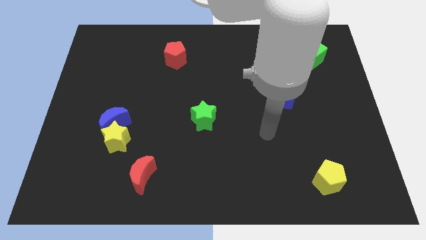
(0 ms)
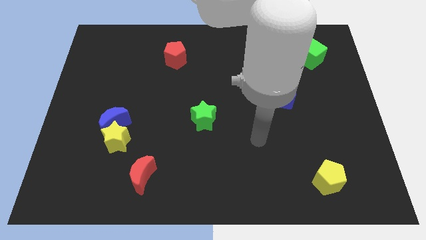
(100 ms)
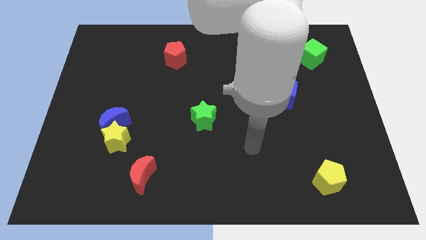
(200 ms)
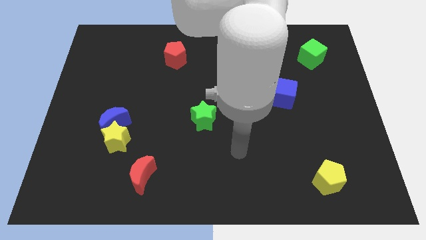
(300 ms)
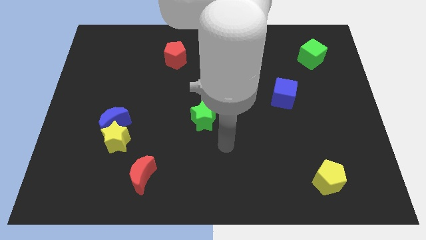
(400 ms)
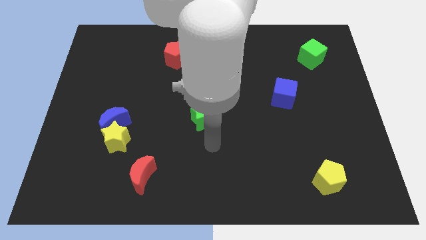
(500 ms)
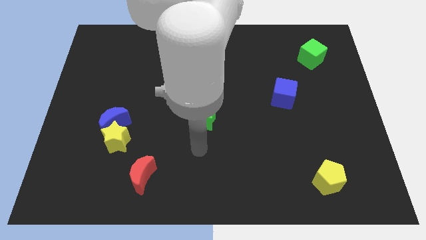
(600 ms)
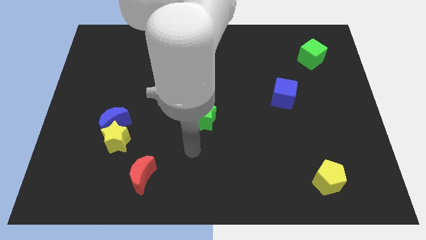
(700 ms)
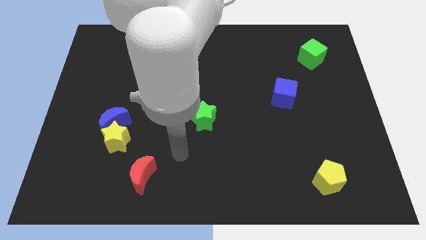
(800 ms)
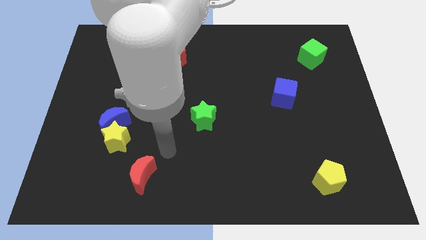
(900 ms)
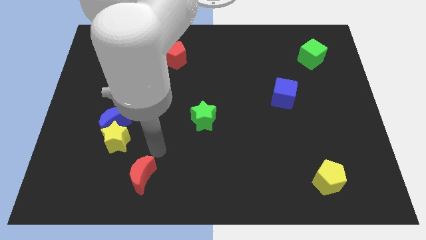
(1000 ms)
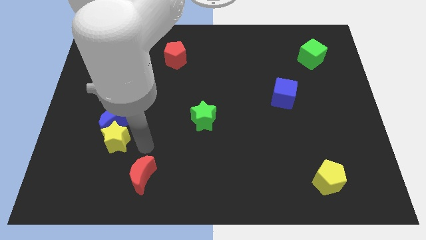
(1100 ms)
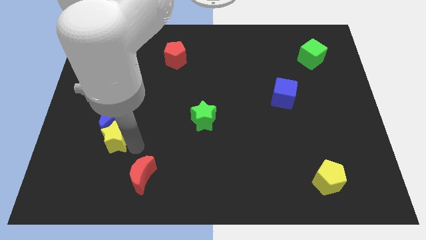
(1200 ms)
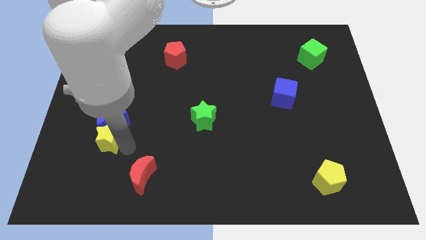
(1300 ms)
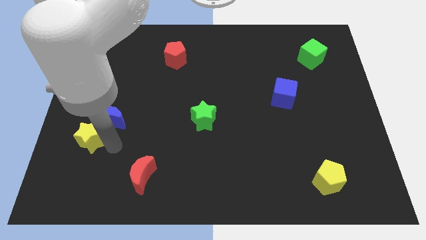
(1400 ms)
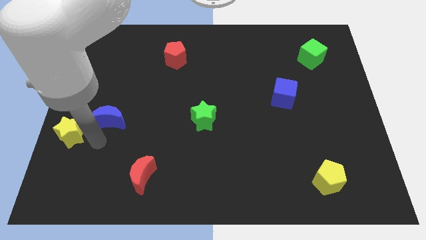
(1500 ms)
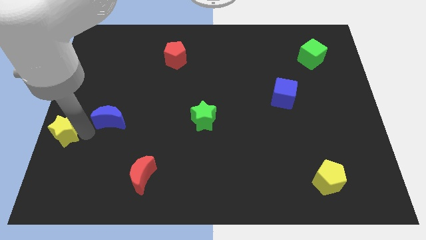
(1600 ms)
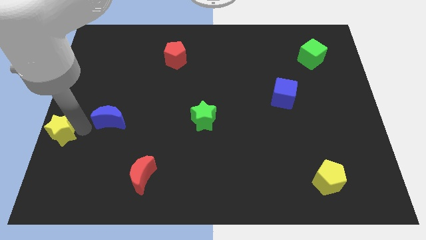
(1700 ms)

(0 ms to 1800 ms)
pull the blue moon apart from the yellow star

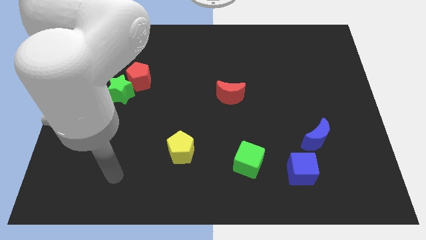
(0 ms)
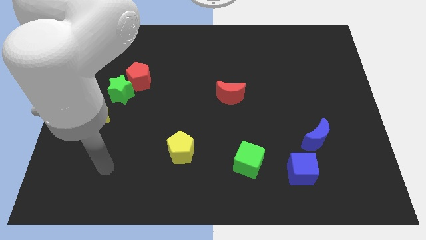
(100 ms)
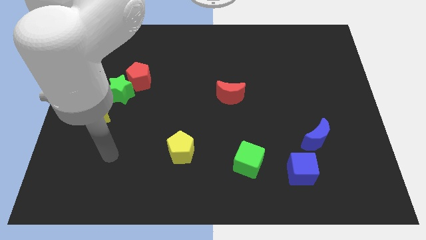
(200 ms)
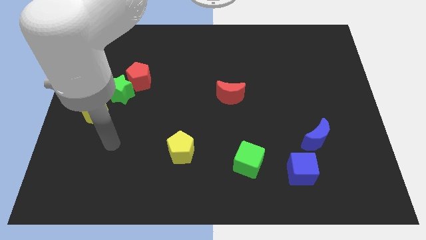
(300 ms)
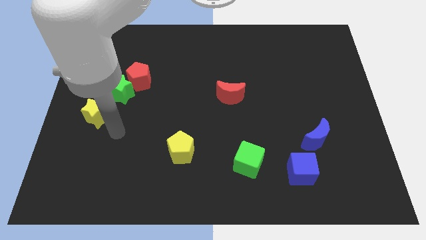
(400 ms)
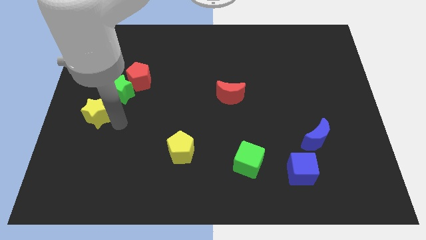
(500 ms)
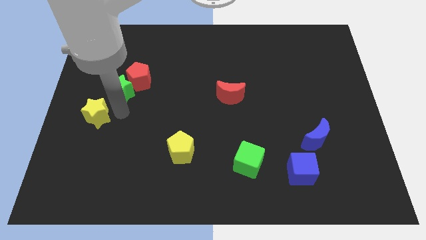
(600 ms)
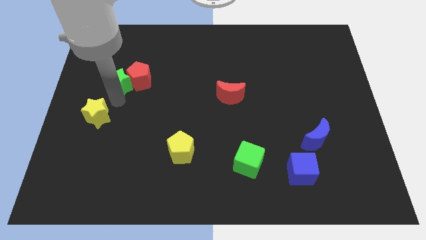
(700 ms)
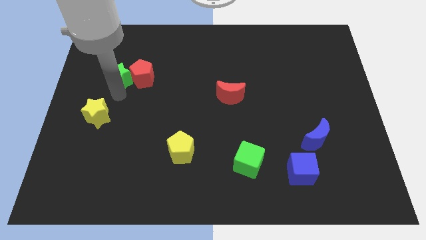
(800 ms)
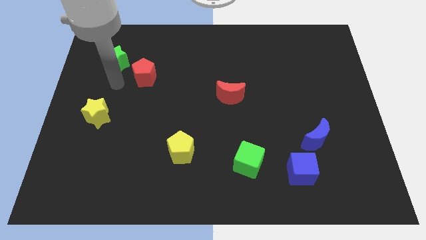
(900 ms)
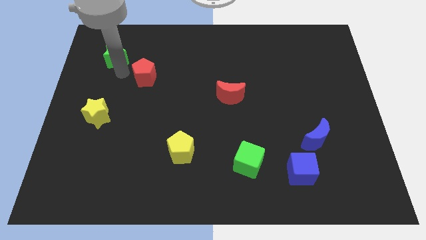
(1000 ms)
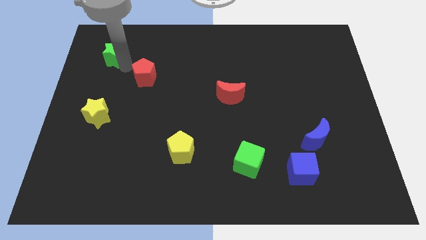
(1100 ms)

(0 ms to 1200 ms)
separate the red pentagon from the green star

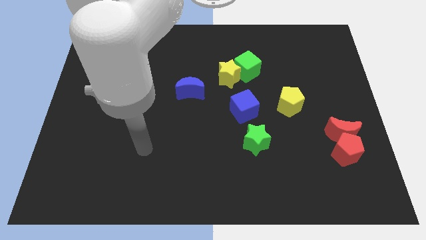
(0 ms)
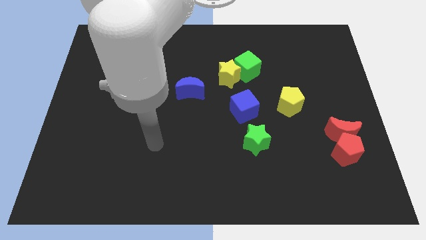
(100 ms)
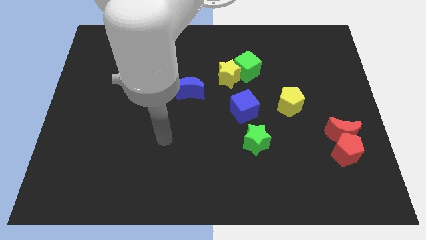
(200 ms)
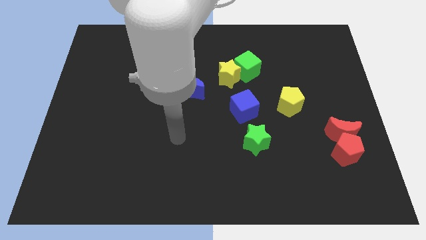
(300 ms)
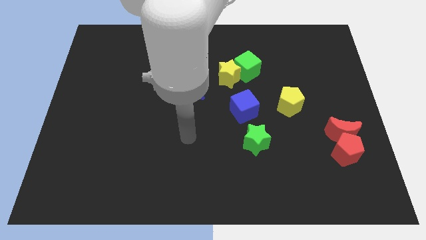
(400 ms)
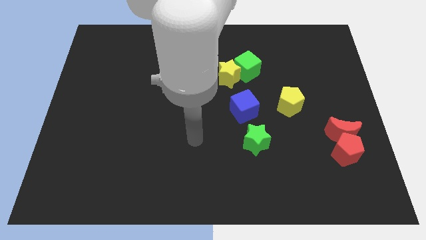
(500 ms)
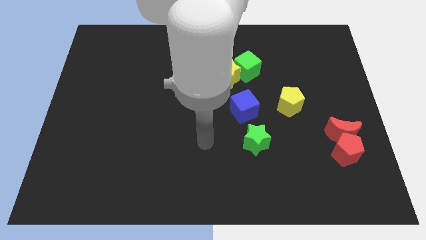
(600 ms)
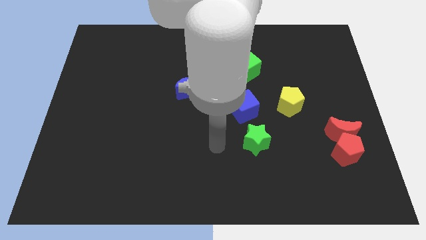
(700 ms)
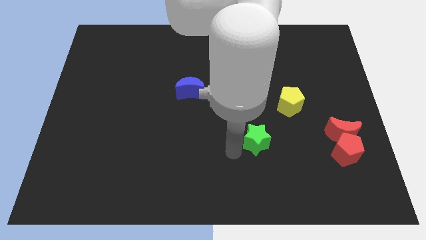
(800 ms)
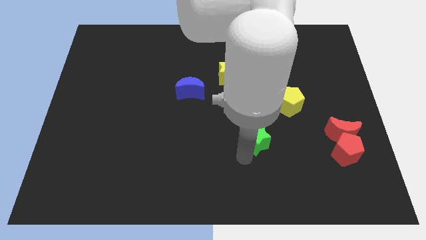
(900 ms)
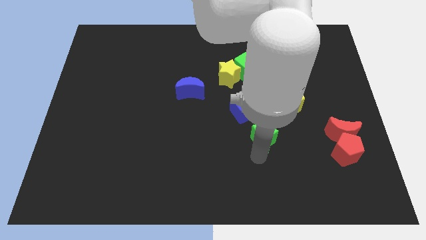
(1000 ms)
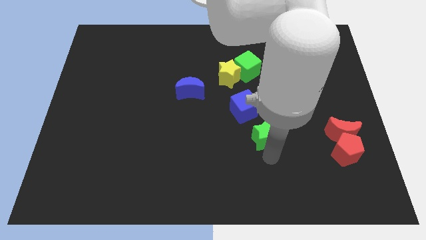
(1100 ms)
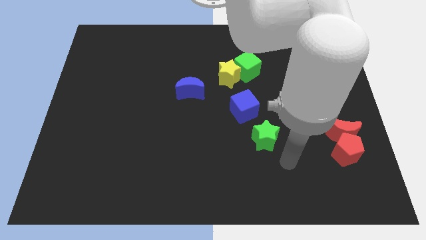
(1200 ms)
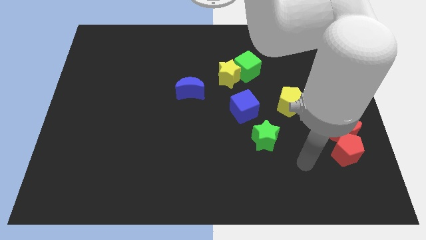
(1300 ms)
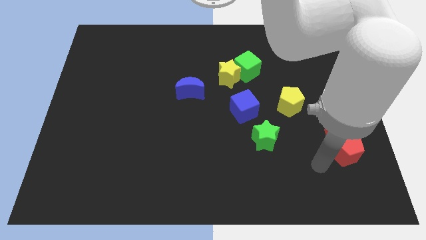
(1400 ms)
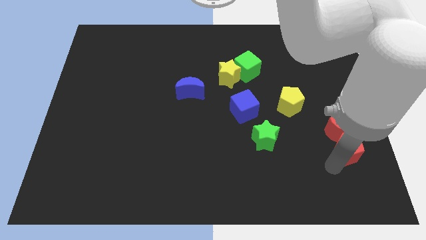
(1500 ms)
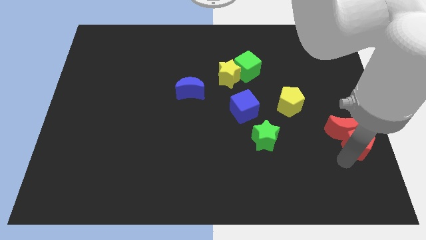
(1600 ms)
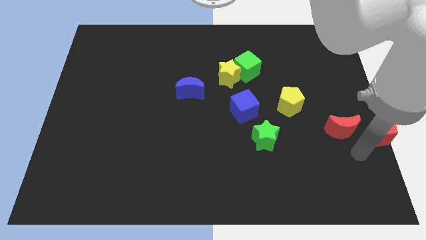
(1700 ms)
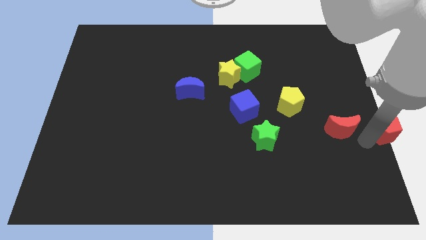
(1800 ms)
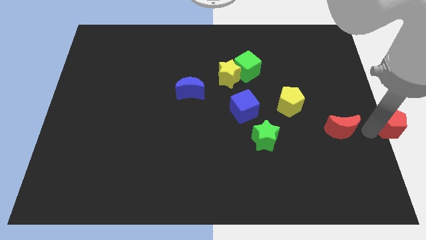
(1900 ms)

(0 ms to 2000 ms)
separate the red moon from the red pentagon

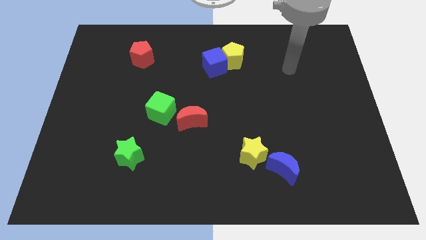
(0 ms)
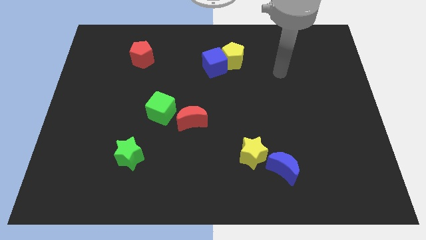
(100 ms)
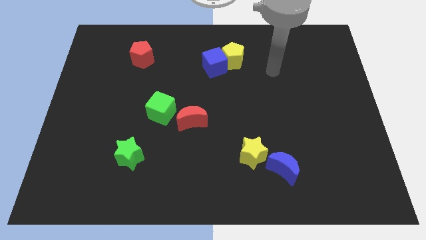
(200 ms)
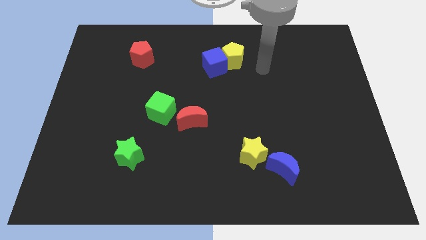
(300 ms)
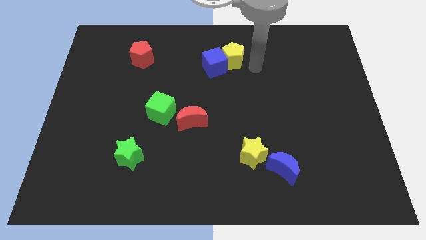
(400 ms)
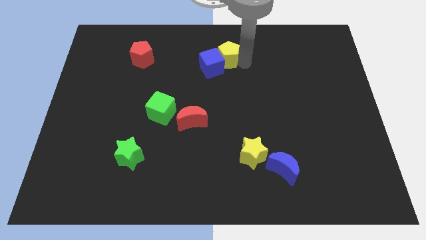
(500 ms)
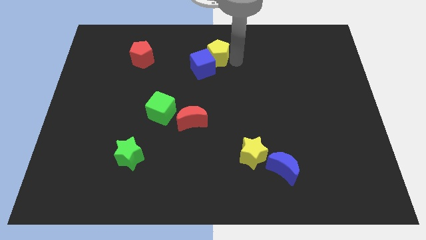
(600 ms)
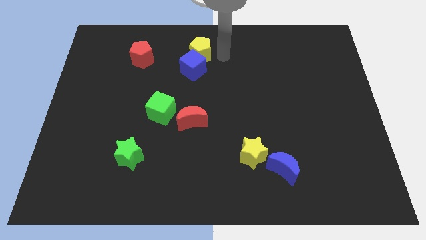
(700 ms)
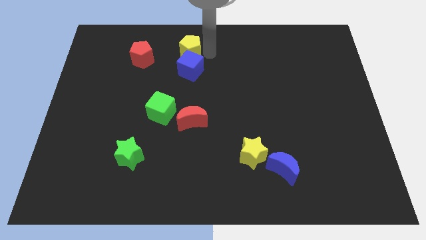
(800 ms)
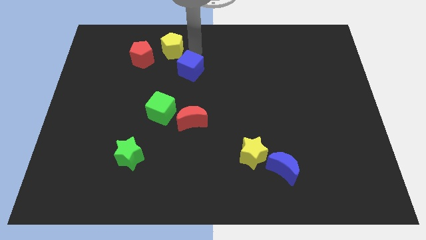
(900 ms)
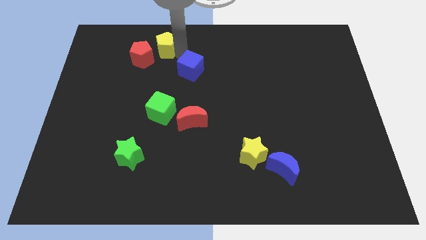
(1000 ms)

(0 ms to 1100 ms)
move the blue cube away from the yellow pentagon

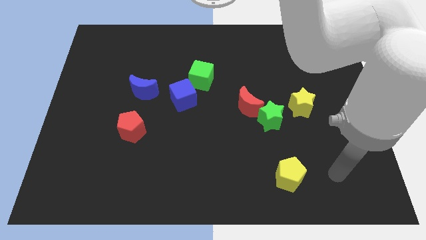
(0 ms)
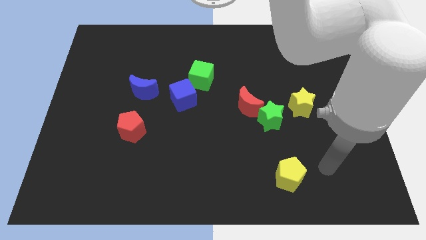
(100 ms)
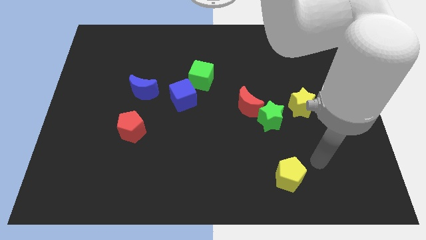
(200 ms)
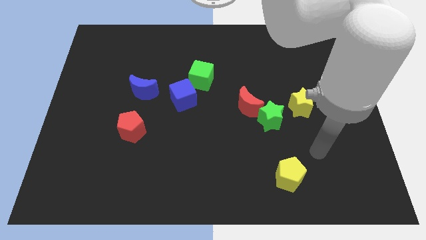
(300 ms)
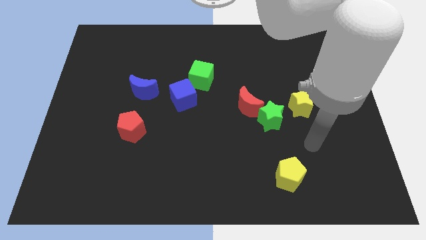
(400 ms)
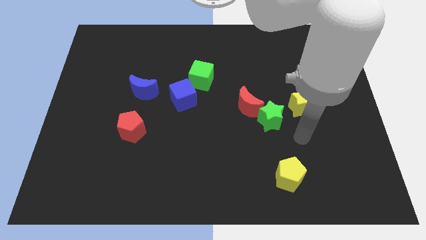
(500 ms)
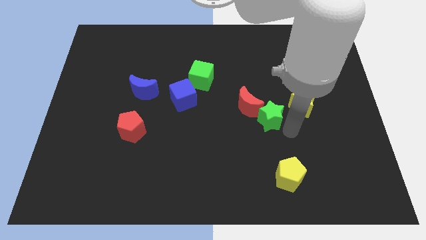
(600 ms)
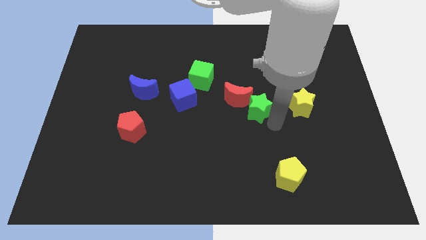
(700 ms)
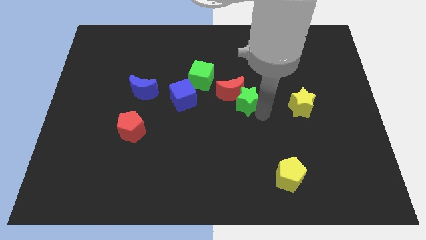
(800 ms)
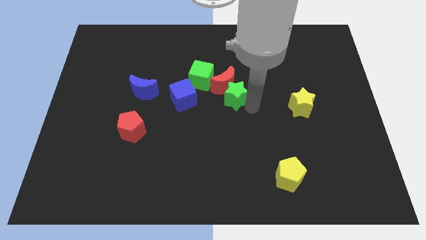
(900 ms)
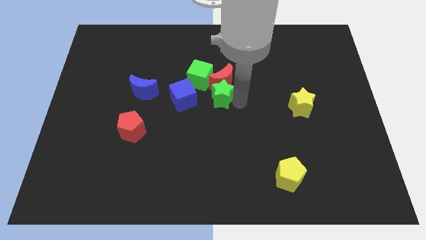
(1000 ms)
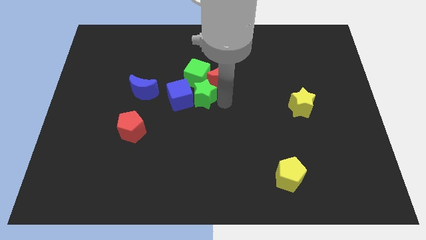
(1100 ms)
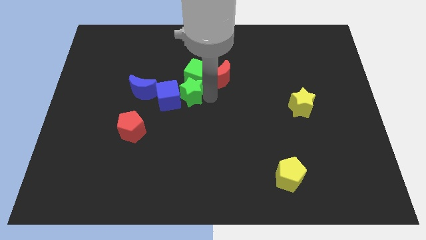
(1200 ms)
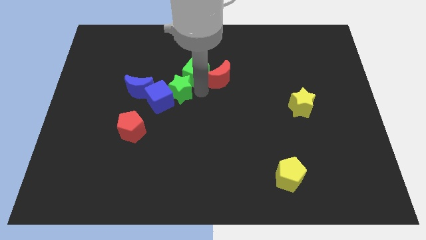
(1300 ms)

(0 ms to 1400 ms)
move the red moon away from the green star

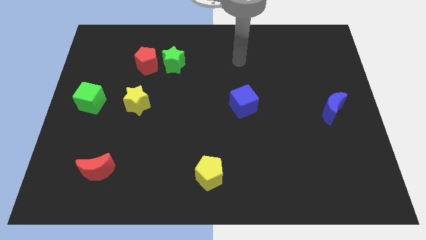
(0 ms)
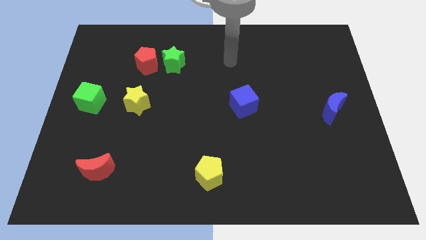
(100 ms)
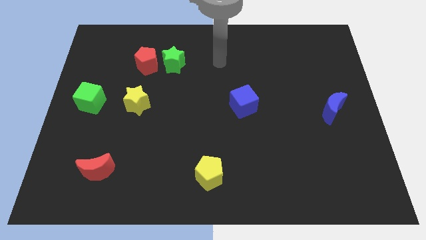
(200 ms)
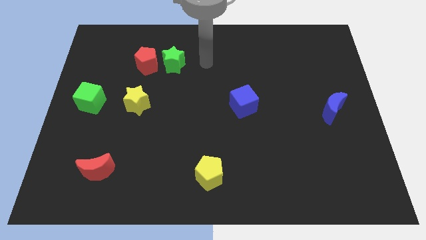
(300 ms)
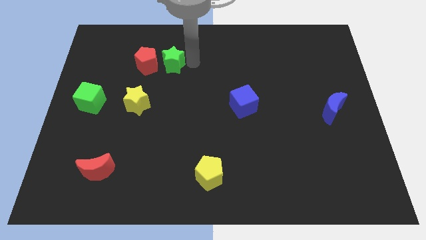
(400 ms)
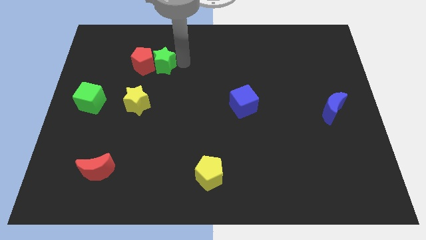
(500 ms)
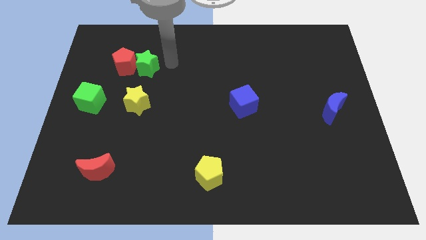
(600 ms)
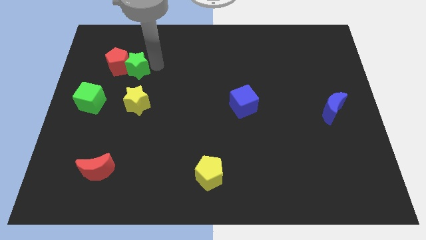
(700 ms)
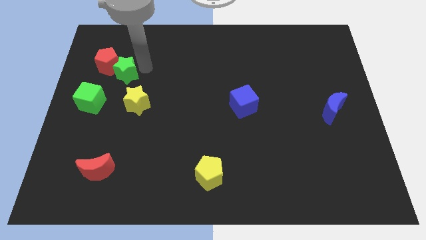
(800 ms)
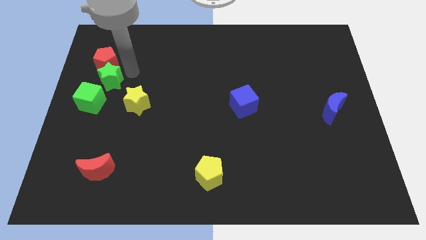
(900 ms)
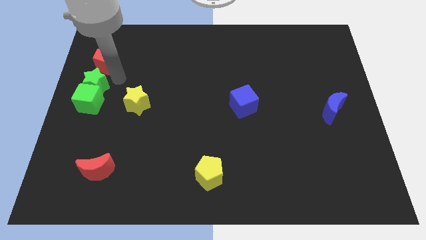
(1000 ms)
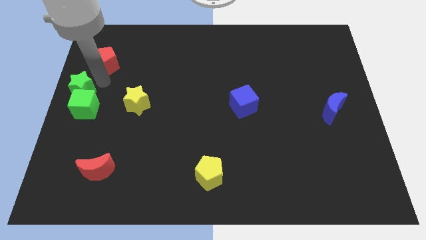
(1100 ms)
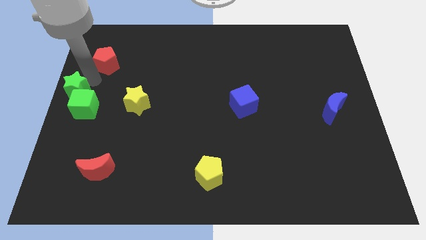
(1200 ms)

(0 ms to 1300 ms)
pull the red pentagon apart from the green star

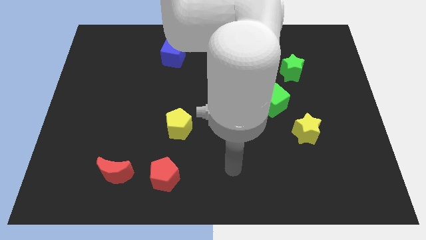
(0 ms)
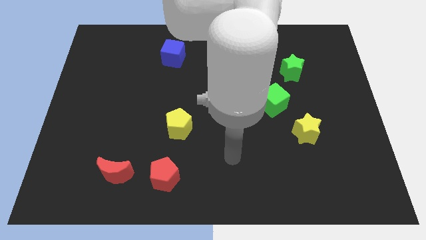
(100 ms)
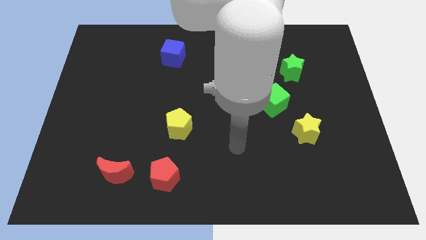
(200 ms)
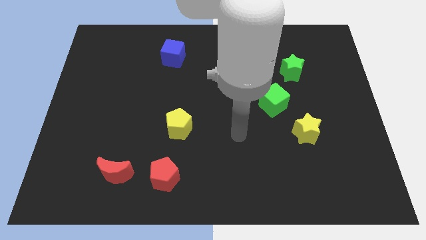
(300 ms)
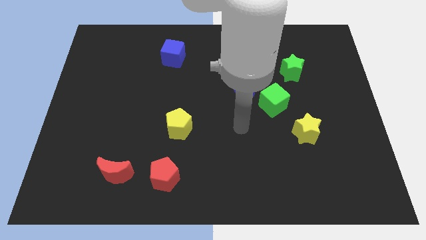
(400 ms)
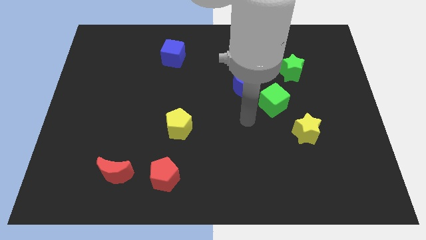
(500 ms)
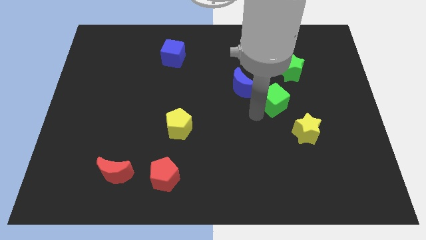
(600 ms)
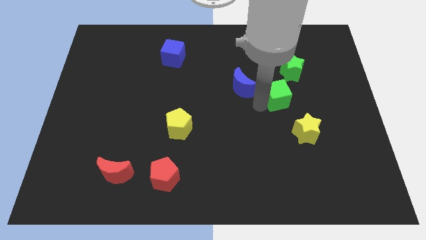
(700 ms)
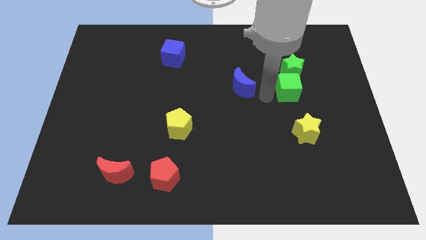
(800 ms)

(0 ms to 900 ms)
pull the blue moon apart from the green cube
